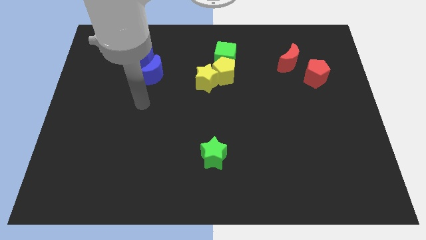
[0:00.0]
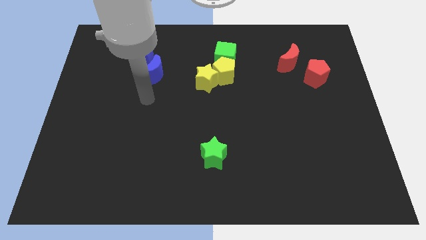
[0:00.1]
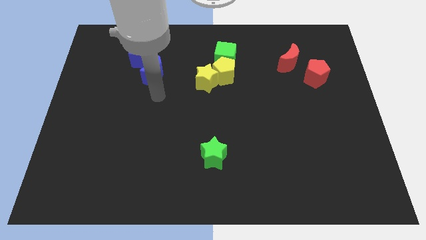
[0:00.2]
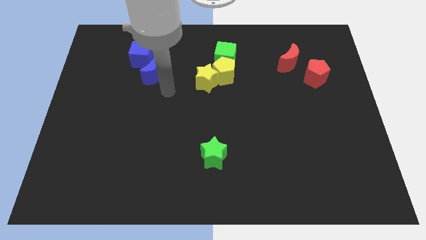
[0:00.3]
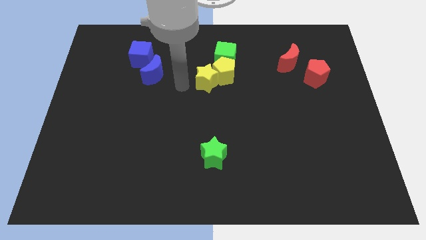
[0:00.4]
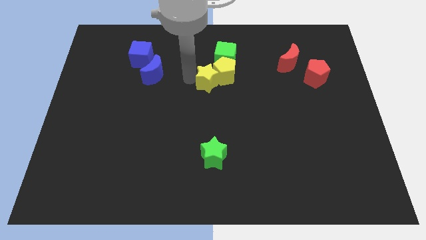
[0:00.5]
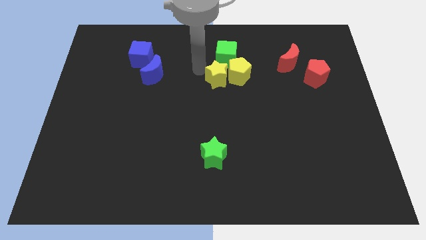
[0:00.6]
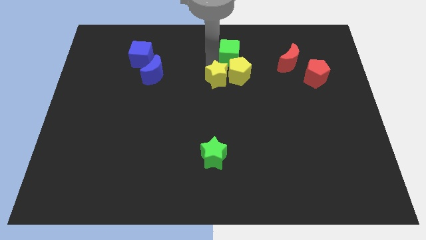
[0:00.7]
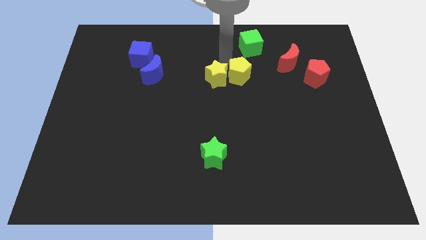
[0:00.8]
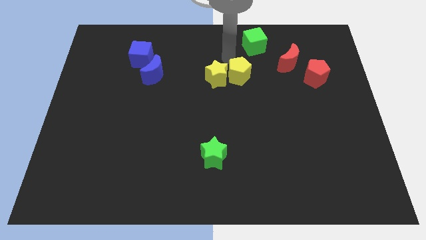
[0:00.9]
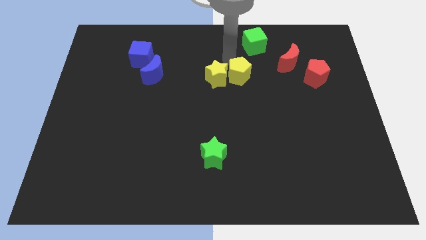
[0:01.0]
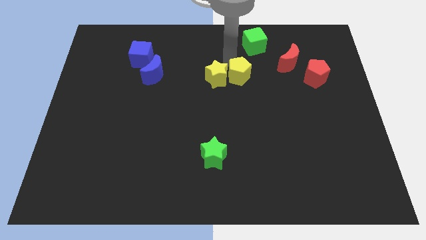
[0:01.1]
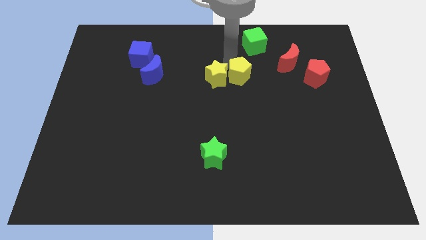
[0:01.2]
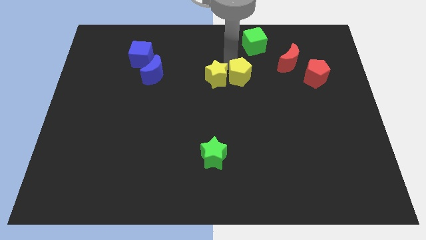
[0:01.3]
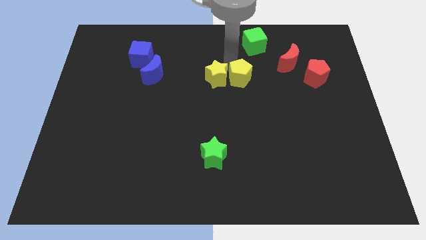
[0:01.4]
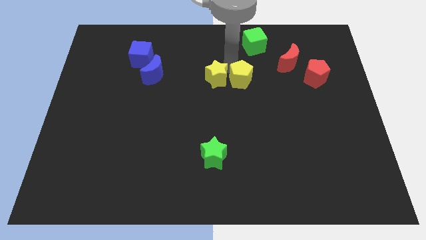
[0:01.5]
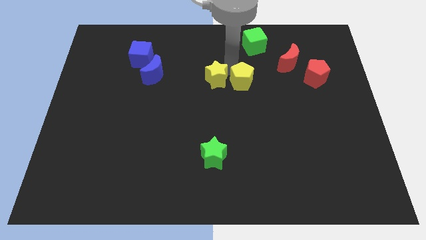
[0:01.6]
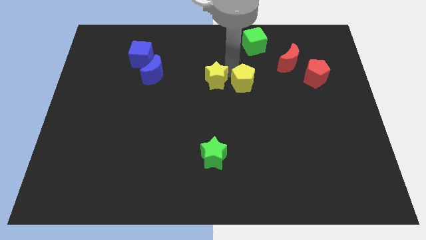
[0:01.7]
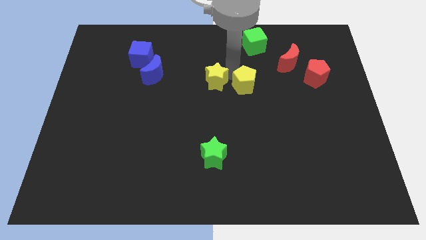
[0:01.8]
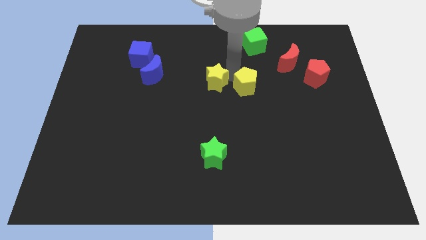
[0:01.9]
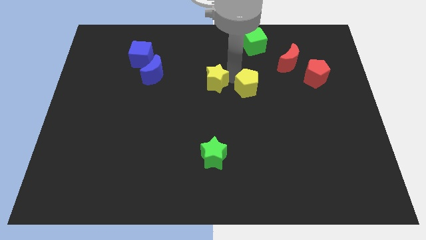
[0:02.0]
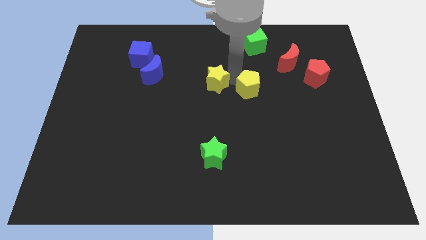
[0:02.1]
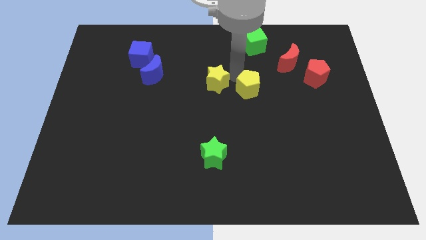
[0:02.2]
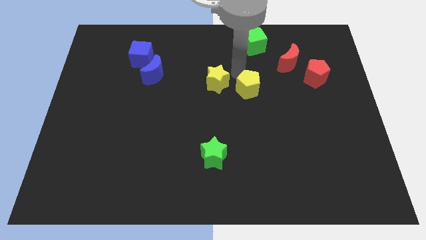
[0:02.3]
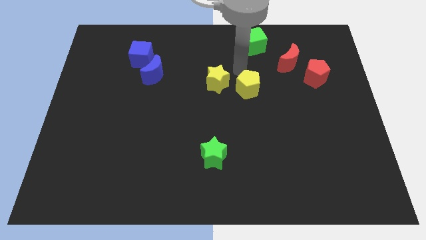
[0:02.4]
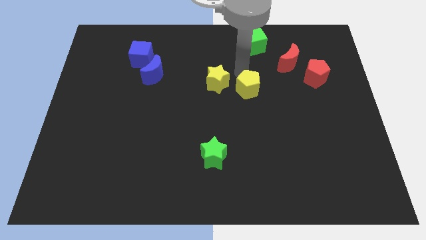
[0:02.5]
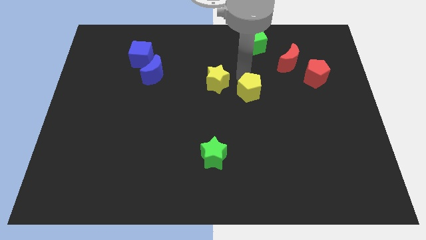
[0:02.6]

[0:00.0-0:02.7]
move the yellow pentagon away from the yellow star and green cube

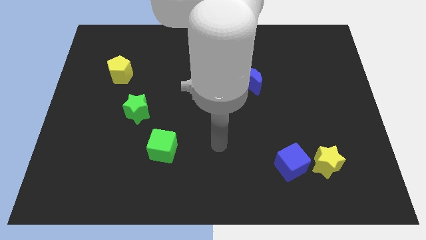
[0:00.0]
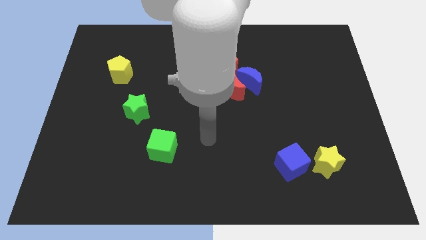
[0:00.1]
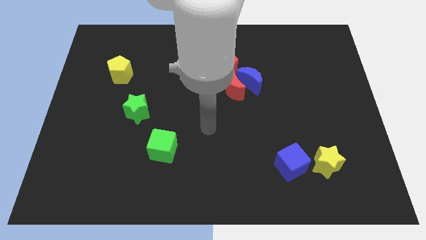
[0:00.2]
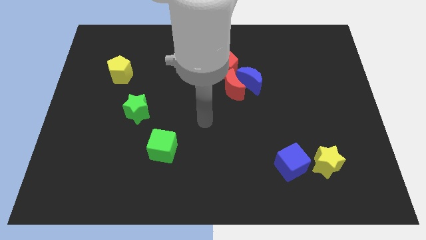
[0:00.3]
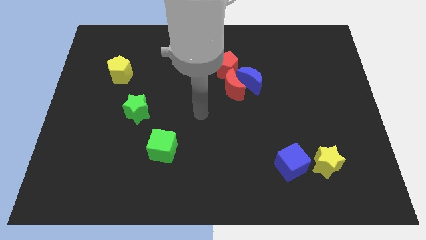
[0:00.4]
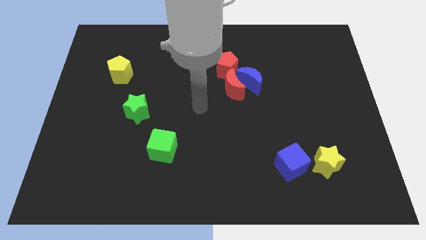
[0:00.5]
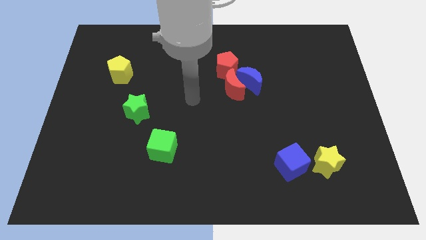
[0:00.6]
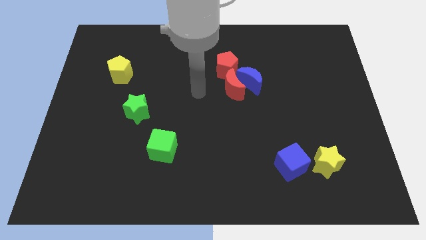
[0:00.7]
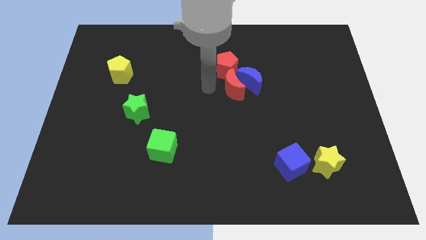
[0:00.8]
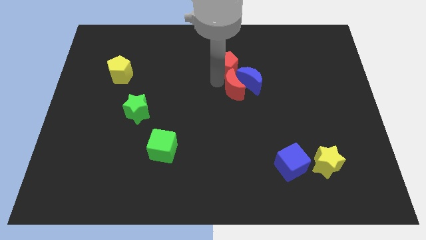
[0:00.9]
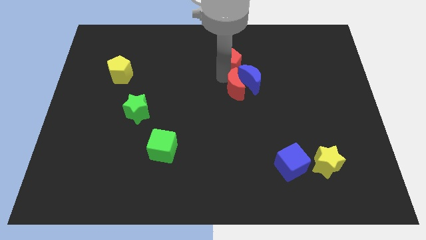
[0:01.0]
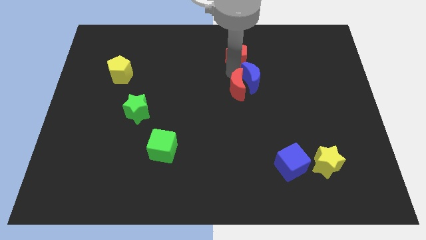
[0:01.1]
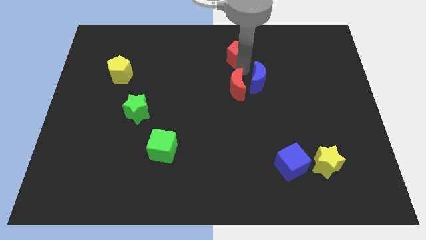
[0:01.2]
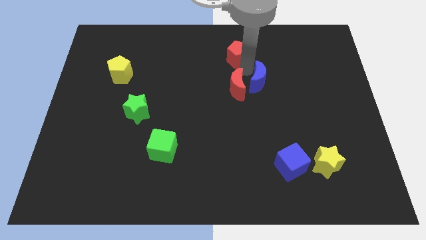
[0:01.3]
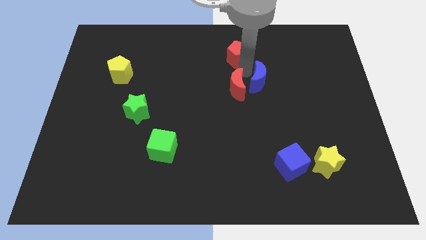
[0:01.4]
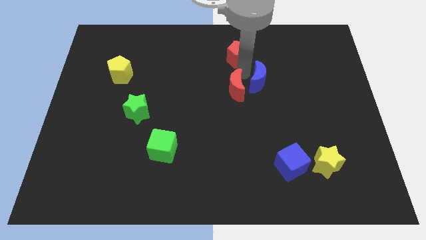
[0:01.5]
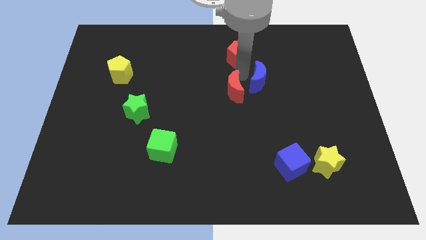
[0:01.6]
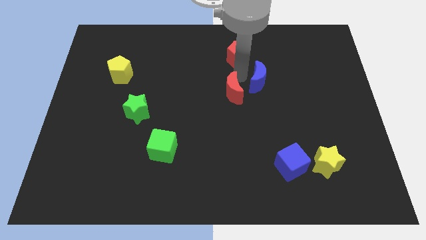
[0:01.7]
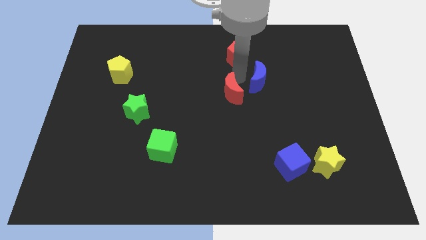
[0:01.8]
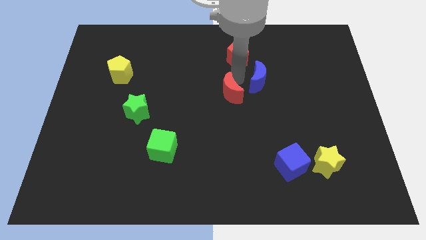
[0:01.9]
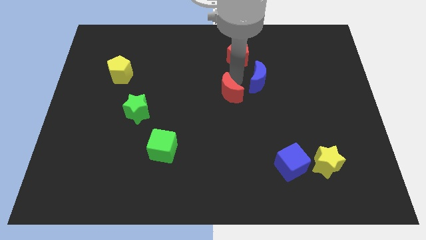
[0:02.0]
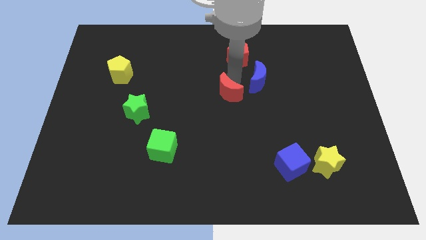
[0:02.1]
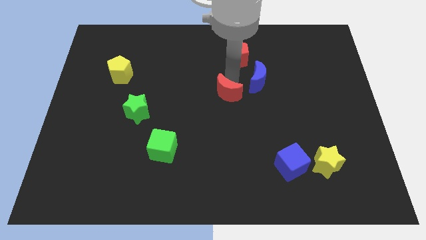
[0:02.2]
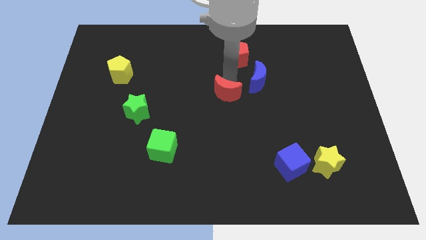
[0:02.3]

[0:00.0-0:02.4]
separate the red moon from the blue moon and red pentagon

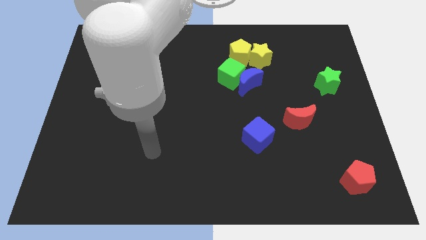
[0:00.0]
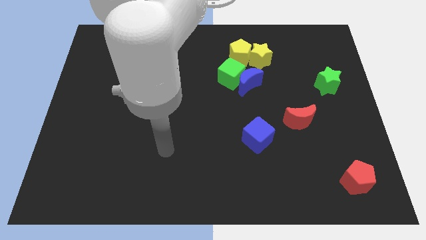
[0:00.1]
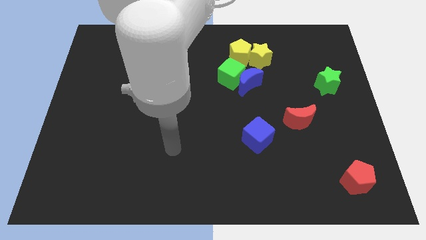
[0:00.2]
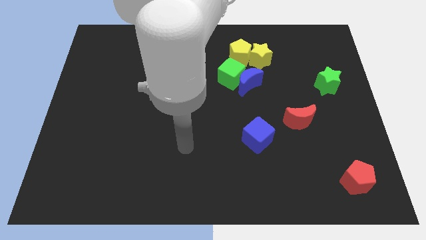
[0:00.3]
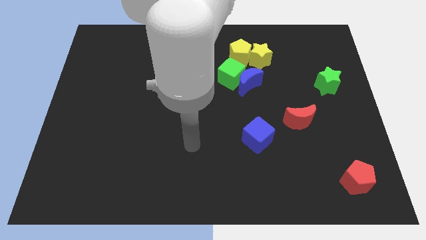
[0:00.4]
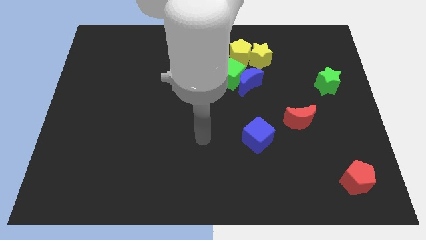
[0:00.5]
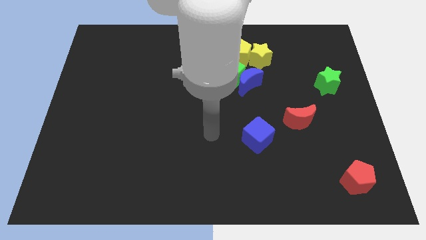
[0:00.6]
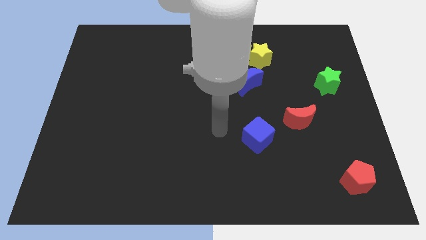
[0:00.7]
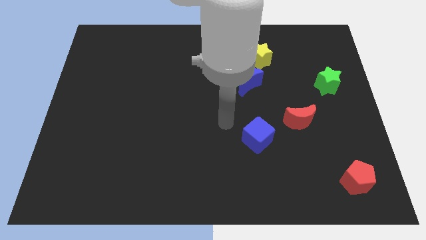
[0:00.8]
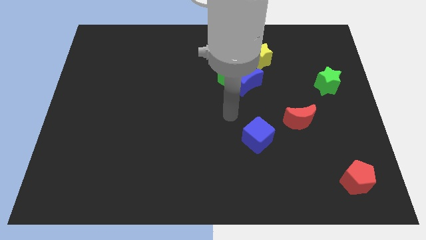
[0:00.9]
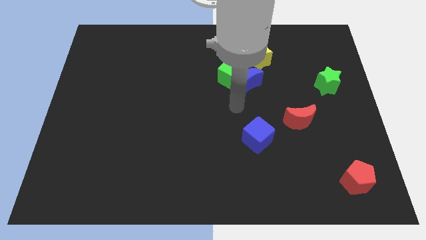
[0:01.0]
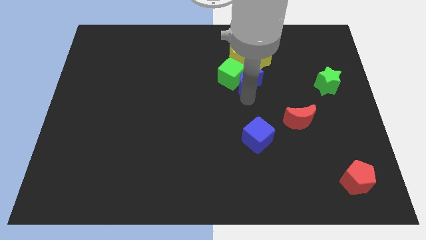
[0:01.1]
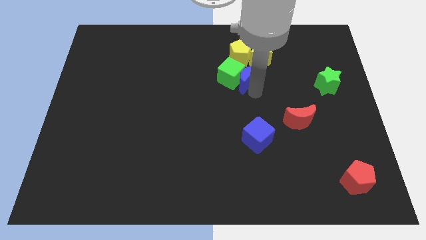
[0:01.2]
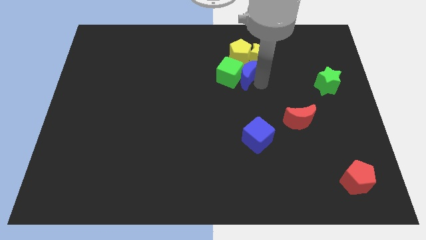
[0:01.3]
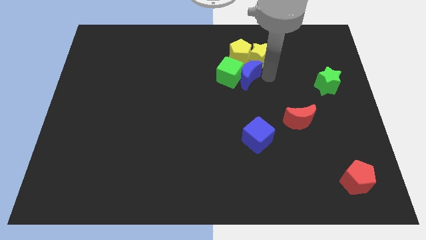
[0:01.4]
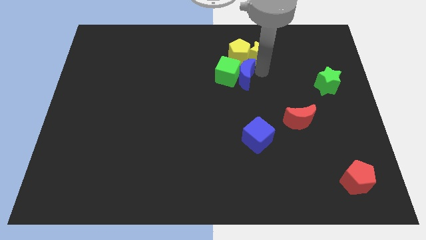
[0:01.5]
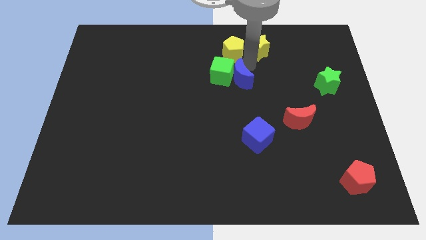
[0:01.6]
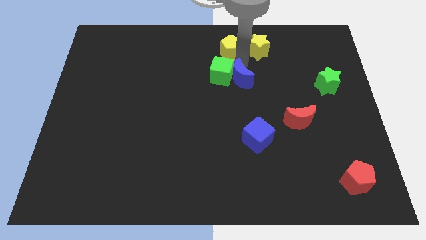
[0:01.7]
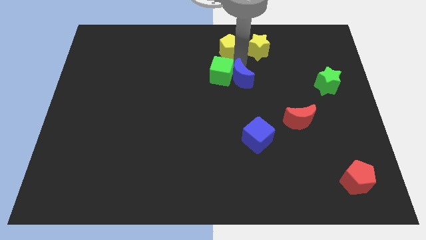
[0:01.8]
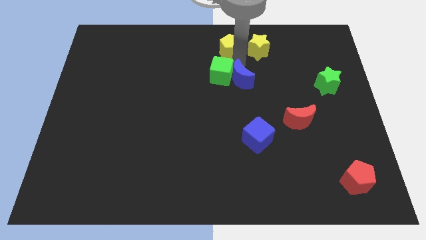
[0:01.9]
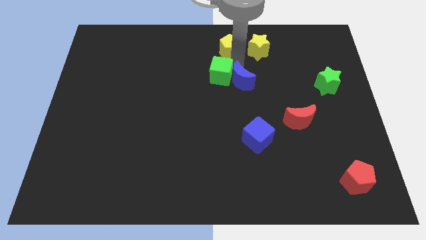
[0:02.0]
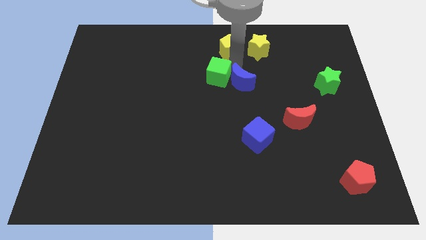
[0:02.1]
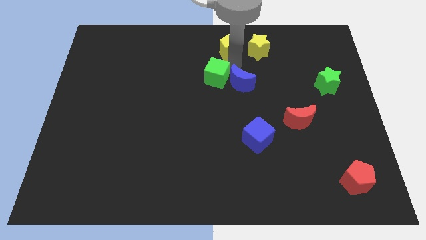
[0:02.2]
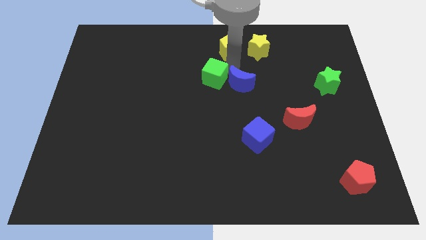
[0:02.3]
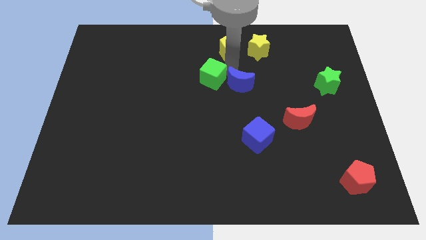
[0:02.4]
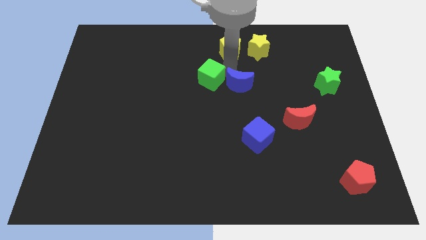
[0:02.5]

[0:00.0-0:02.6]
separate the green cube from the group of blocks

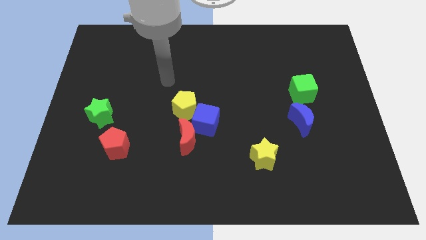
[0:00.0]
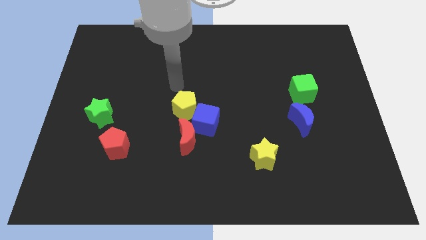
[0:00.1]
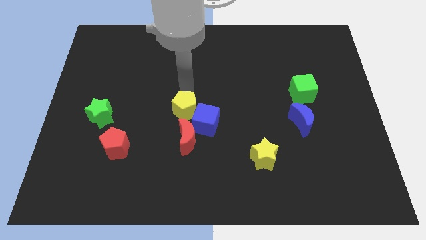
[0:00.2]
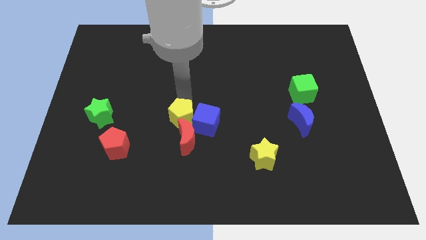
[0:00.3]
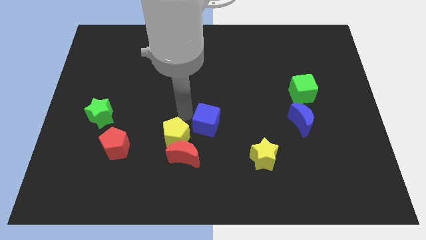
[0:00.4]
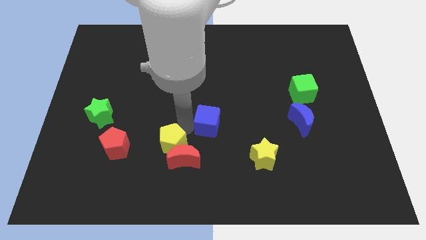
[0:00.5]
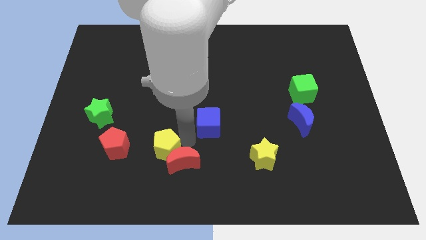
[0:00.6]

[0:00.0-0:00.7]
move the blue cube away from the red moon and yellow pentagon

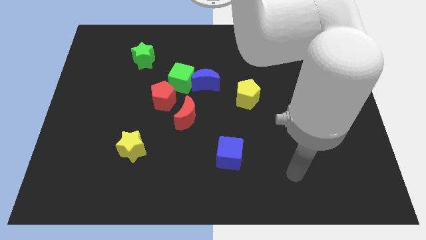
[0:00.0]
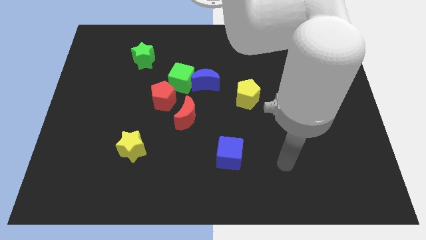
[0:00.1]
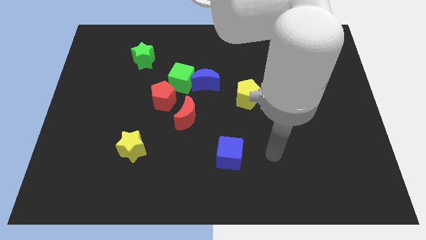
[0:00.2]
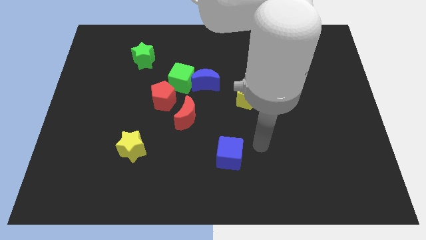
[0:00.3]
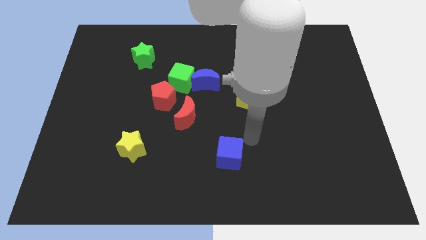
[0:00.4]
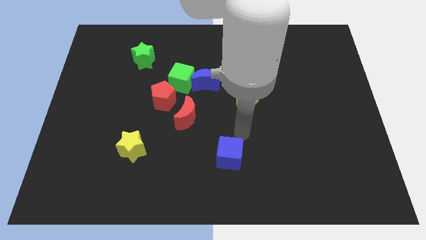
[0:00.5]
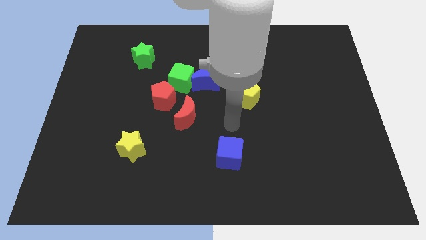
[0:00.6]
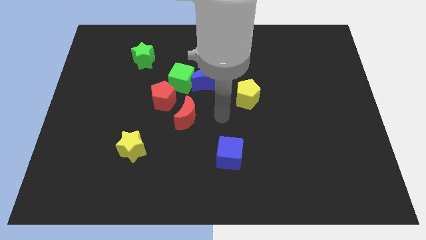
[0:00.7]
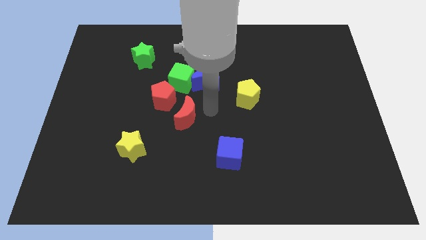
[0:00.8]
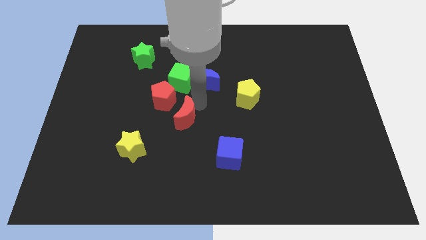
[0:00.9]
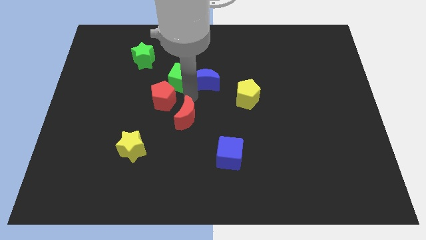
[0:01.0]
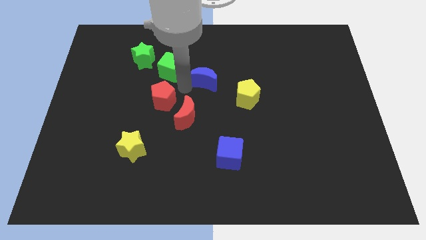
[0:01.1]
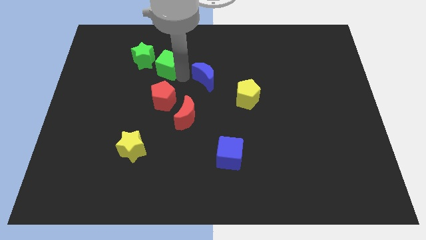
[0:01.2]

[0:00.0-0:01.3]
pull the blue moon apart from the green cube
